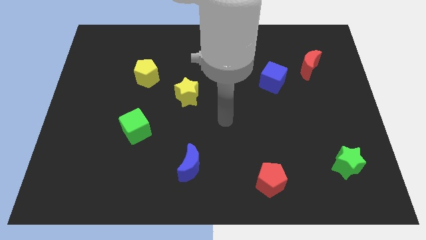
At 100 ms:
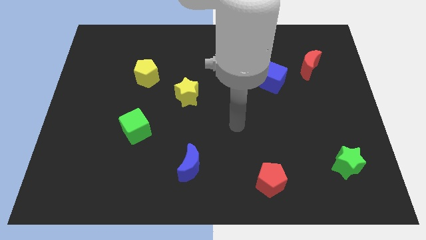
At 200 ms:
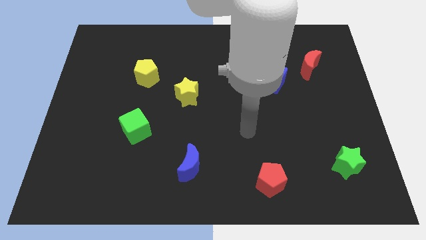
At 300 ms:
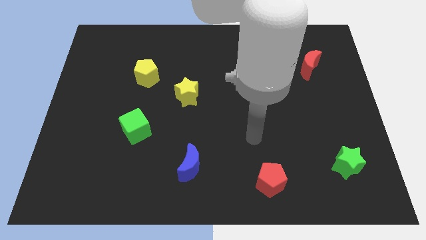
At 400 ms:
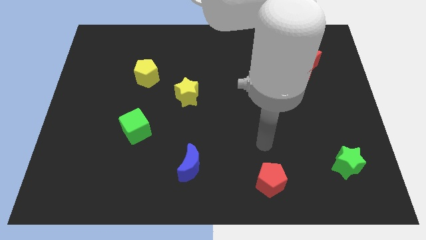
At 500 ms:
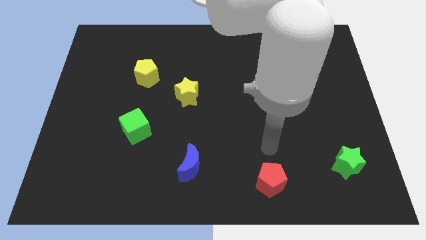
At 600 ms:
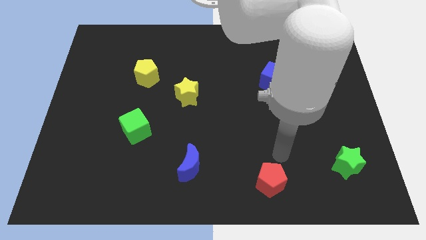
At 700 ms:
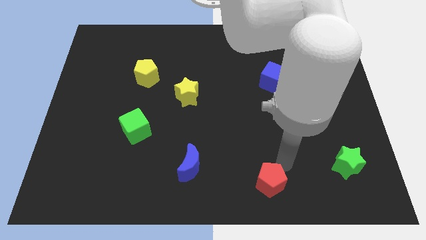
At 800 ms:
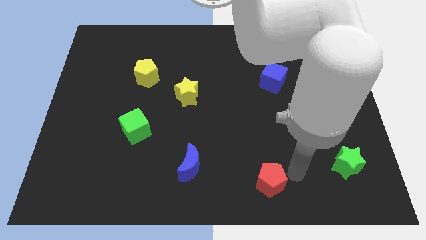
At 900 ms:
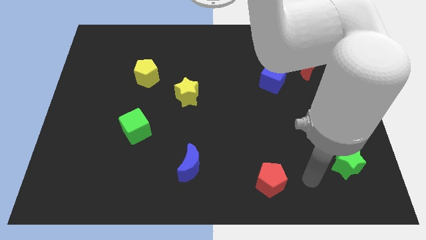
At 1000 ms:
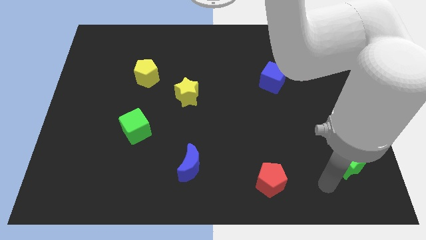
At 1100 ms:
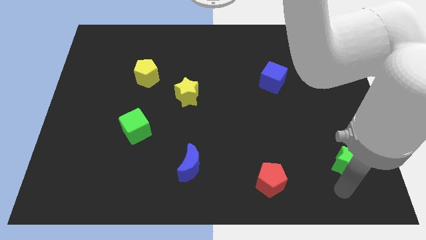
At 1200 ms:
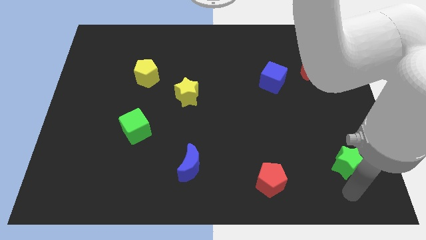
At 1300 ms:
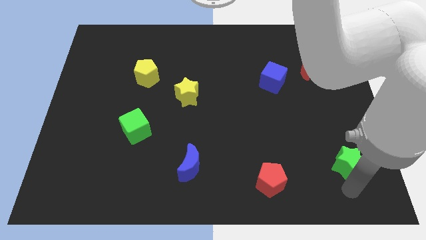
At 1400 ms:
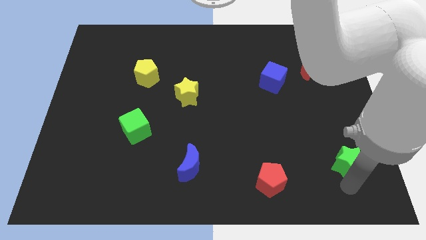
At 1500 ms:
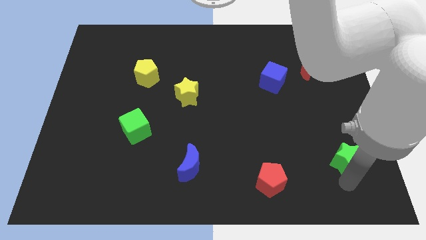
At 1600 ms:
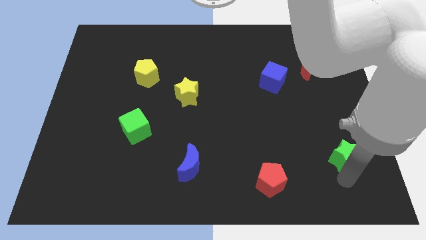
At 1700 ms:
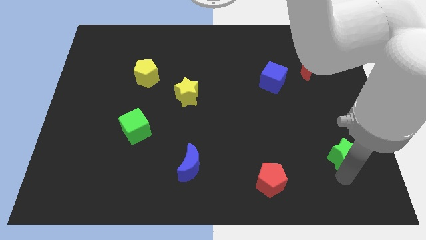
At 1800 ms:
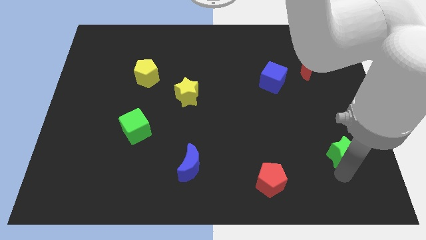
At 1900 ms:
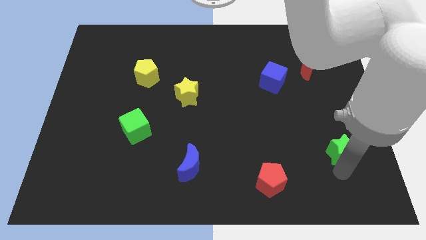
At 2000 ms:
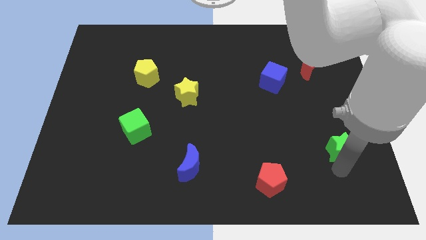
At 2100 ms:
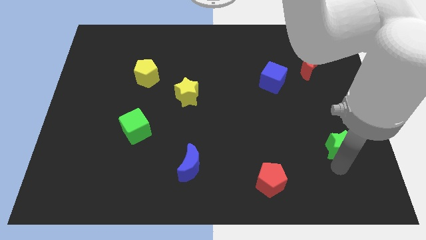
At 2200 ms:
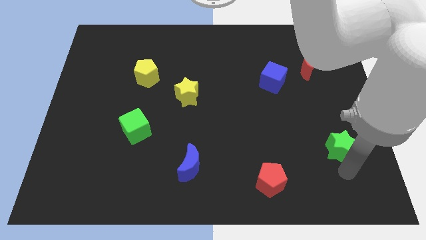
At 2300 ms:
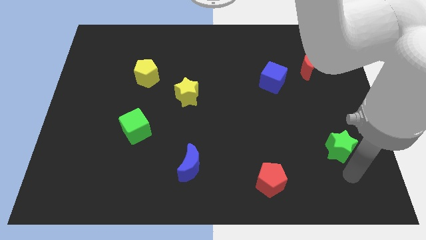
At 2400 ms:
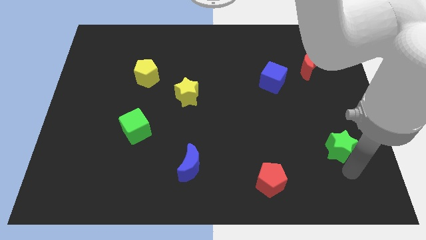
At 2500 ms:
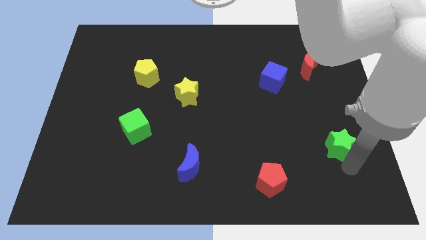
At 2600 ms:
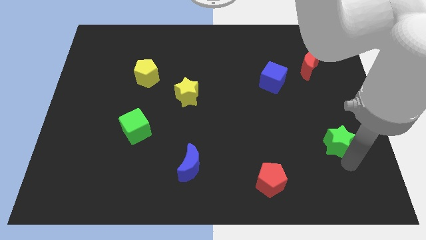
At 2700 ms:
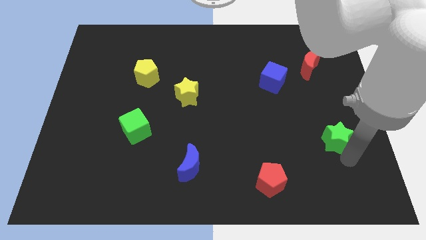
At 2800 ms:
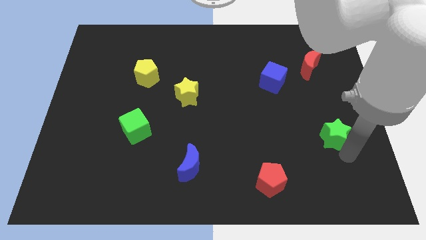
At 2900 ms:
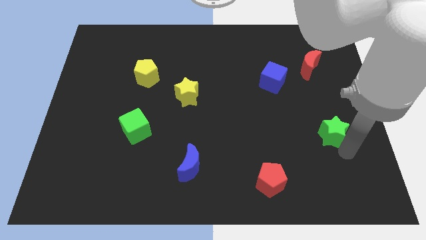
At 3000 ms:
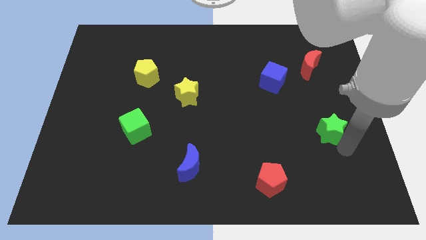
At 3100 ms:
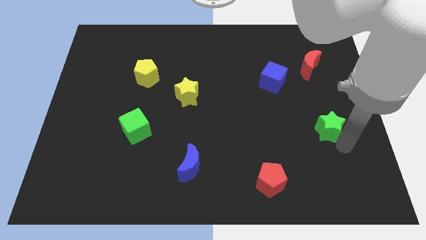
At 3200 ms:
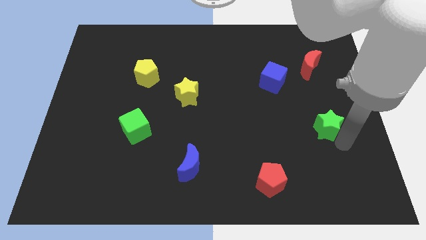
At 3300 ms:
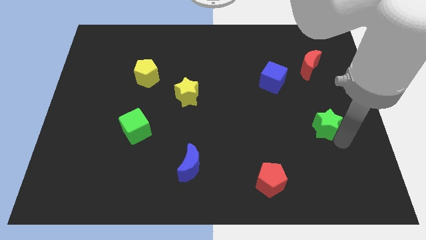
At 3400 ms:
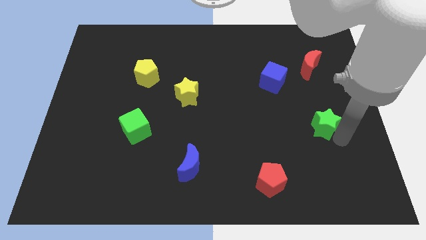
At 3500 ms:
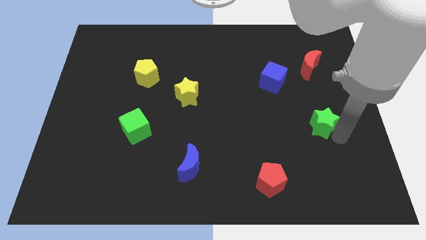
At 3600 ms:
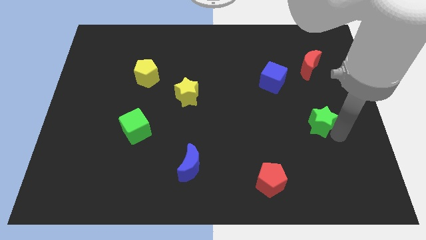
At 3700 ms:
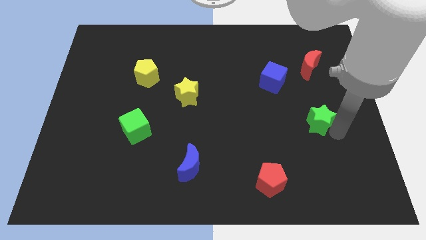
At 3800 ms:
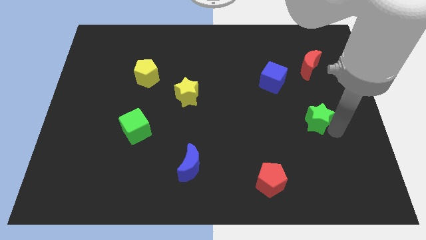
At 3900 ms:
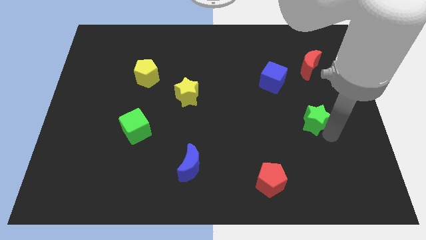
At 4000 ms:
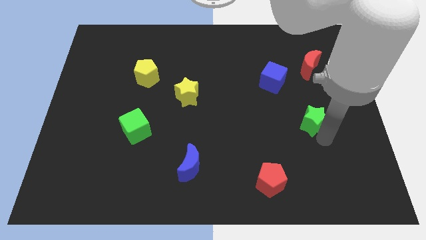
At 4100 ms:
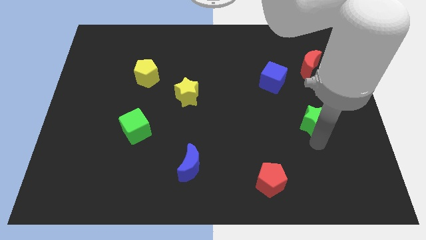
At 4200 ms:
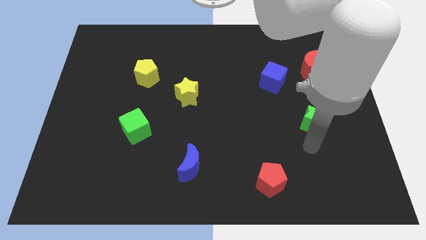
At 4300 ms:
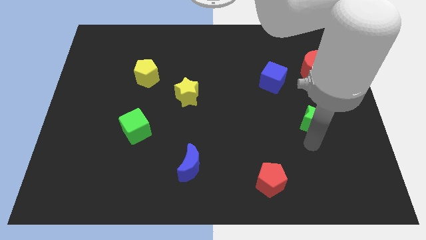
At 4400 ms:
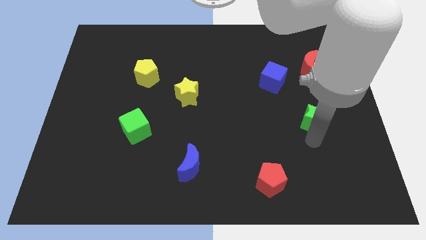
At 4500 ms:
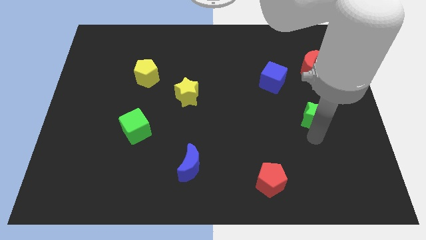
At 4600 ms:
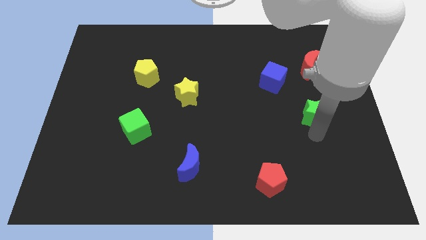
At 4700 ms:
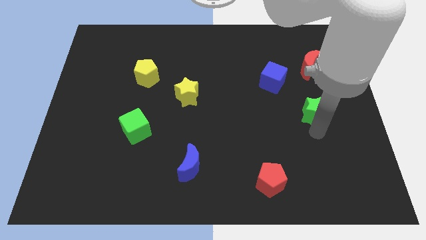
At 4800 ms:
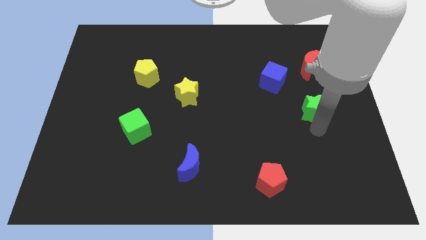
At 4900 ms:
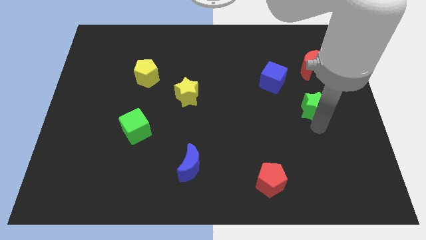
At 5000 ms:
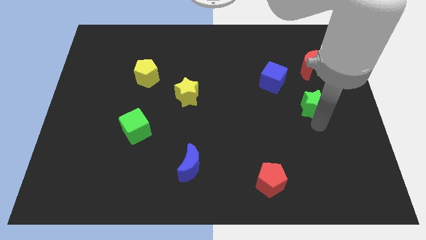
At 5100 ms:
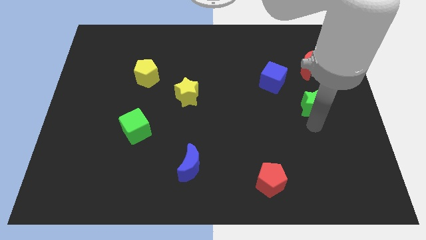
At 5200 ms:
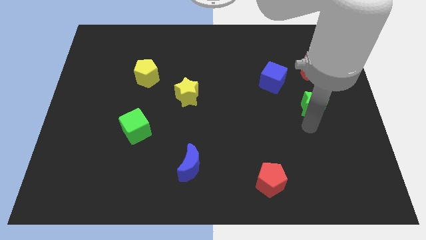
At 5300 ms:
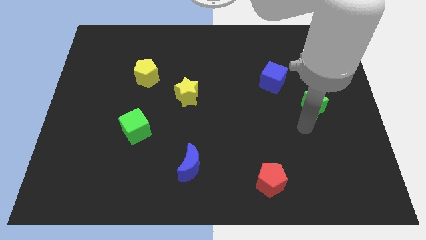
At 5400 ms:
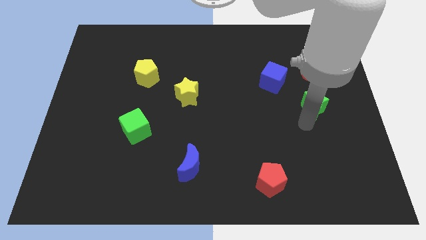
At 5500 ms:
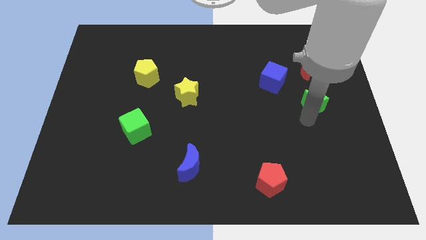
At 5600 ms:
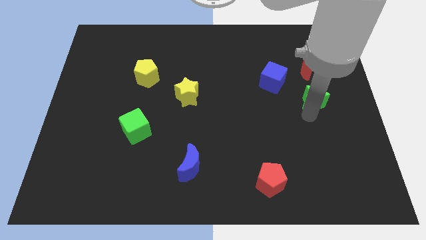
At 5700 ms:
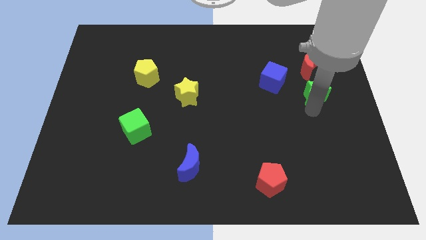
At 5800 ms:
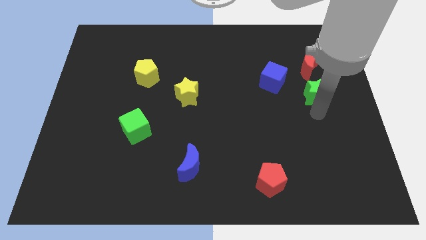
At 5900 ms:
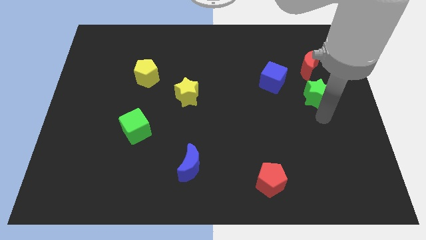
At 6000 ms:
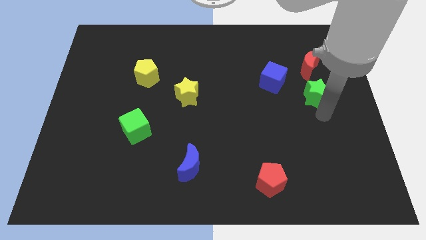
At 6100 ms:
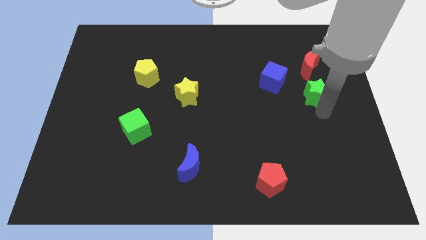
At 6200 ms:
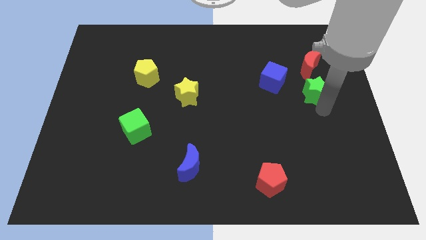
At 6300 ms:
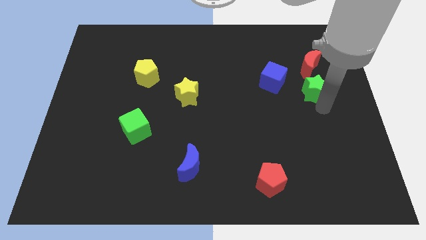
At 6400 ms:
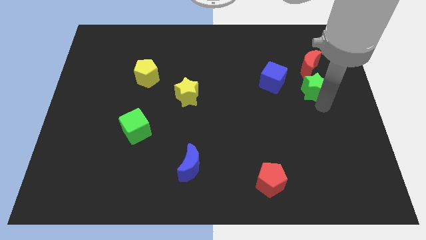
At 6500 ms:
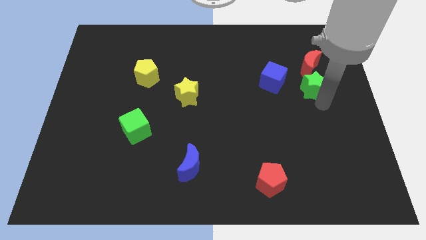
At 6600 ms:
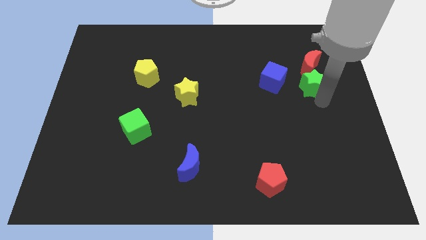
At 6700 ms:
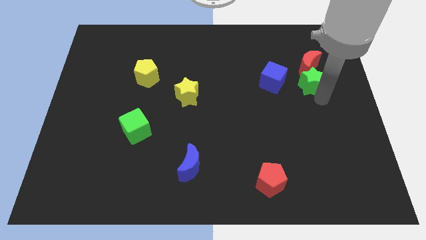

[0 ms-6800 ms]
put the green star next to the red moon

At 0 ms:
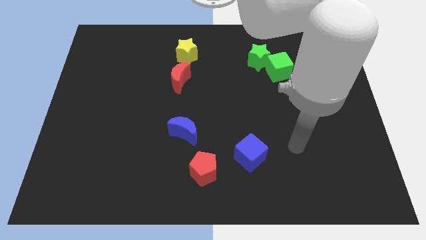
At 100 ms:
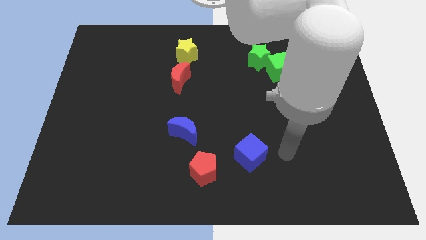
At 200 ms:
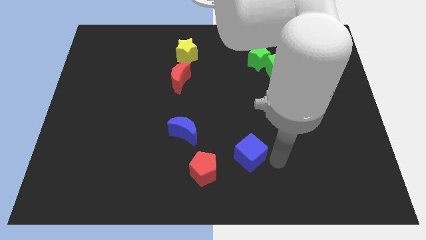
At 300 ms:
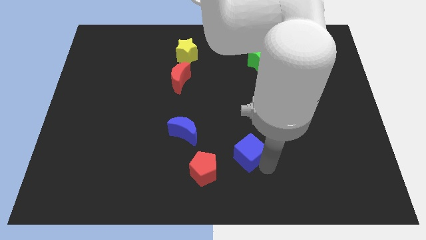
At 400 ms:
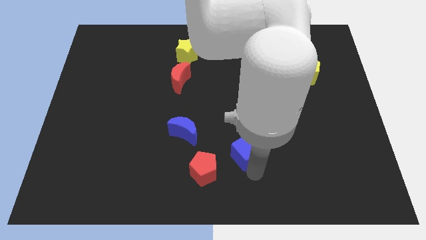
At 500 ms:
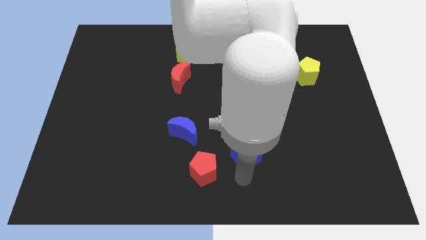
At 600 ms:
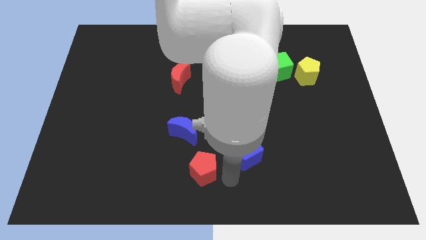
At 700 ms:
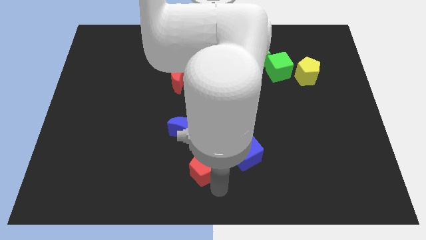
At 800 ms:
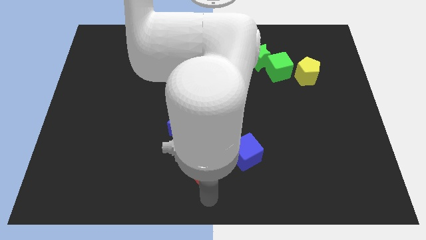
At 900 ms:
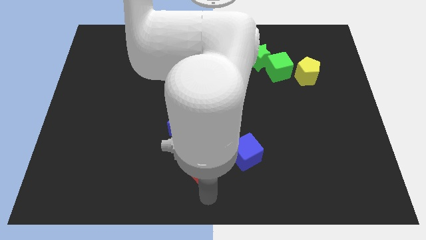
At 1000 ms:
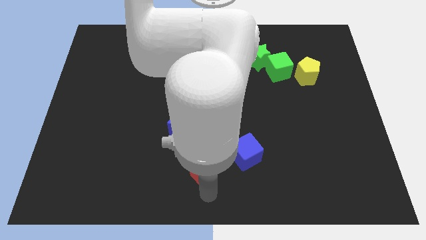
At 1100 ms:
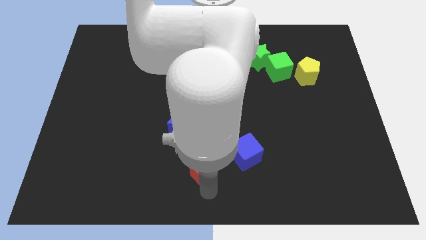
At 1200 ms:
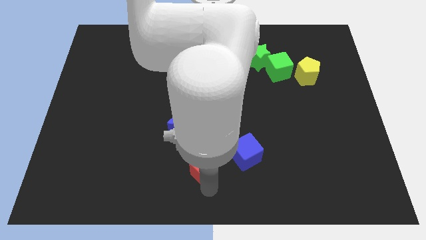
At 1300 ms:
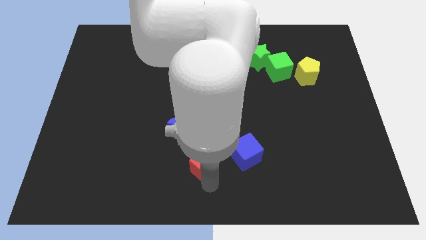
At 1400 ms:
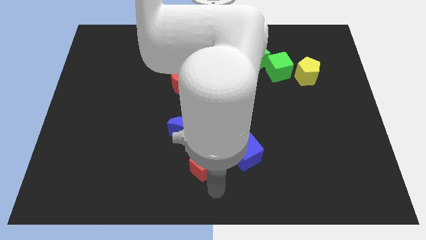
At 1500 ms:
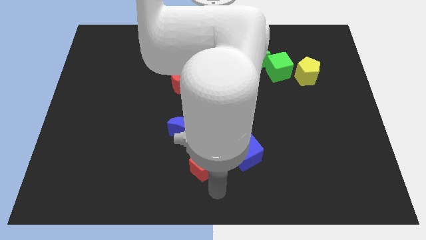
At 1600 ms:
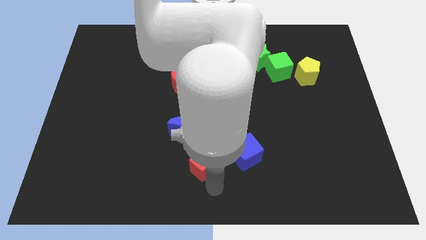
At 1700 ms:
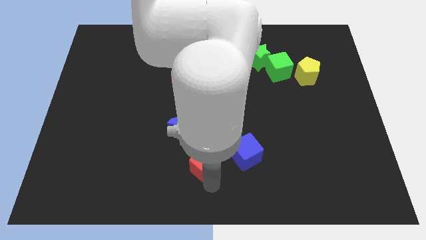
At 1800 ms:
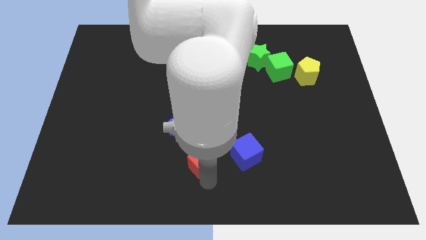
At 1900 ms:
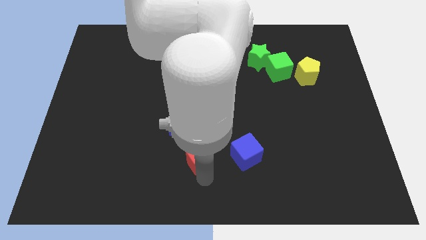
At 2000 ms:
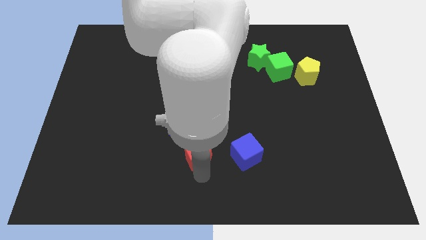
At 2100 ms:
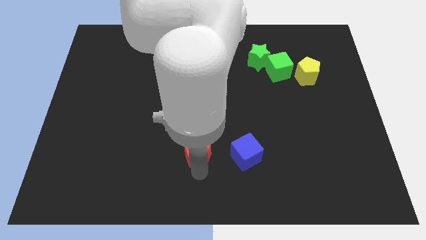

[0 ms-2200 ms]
slide the red pentagon next to the blue moon
